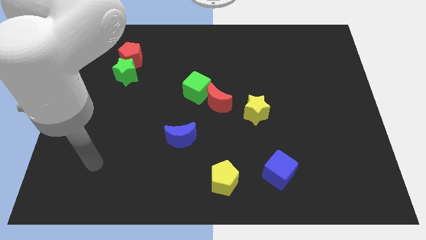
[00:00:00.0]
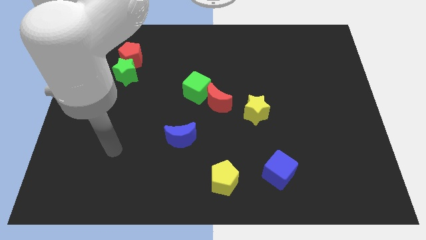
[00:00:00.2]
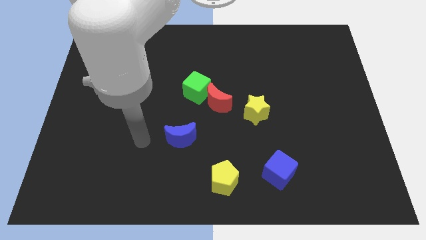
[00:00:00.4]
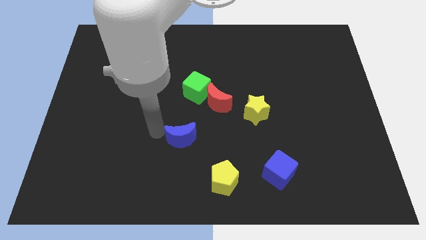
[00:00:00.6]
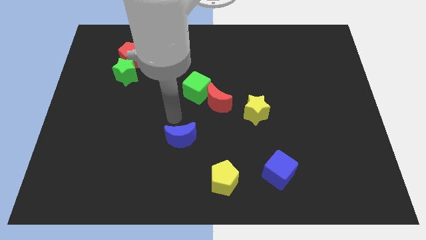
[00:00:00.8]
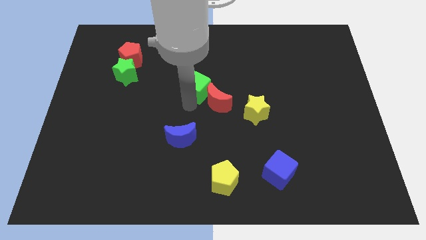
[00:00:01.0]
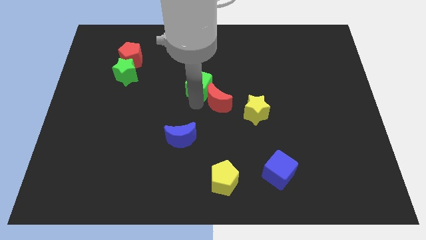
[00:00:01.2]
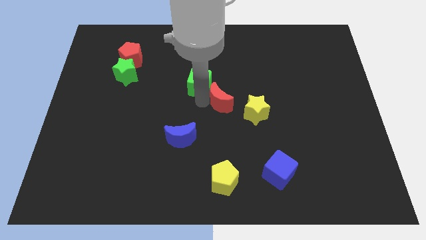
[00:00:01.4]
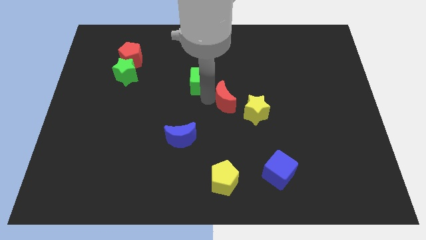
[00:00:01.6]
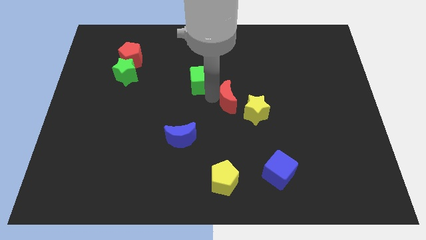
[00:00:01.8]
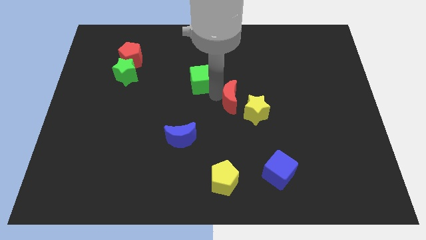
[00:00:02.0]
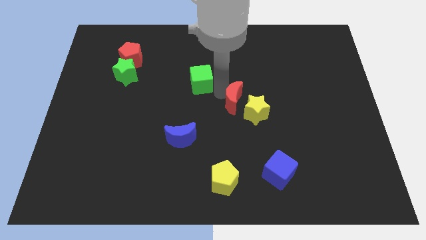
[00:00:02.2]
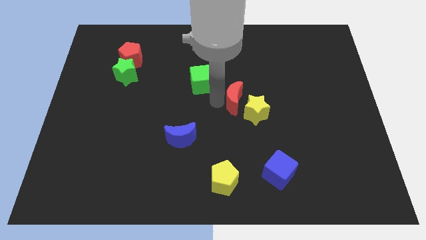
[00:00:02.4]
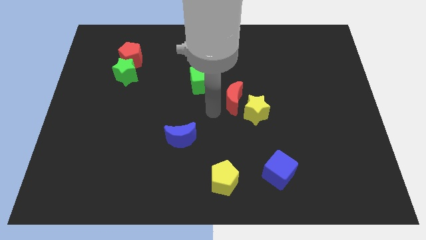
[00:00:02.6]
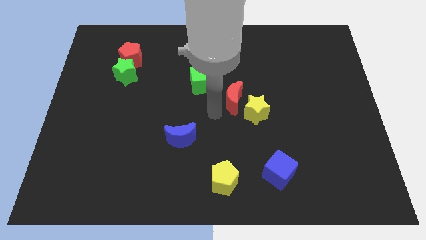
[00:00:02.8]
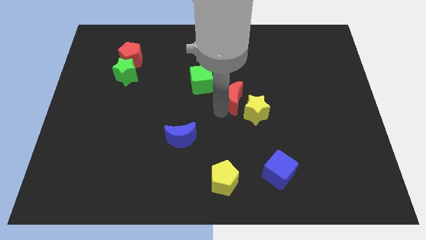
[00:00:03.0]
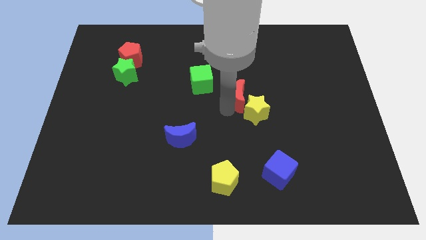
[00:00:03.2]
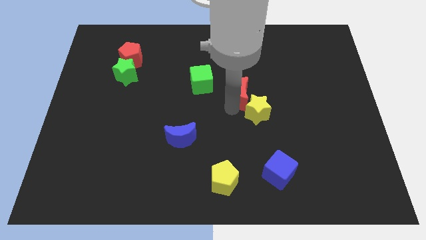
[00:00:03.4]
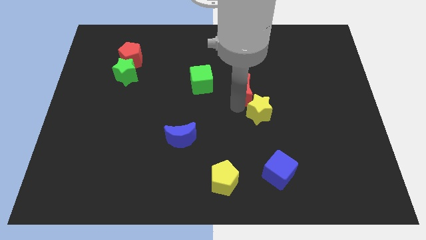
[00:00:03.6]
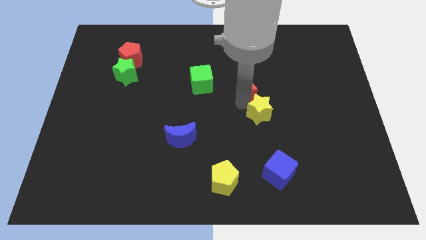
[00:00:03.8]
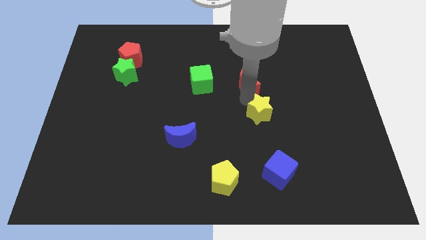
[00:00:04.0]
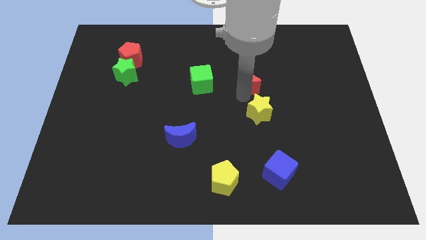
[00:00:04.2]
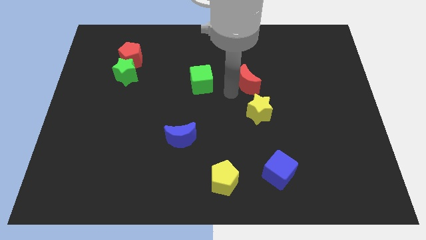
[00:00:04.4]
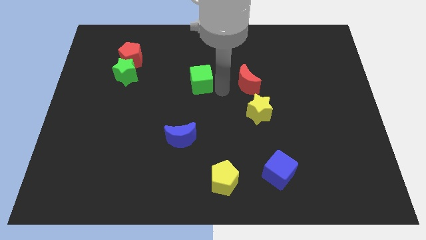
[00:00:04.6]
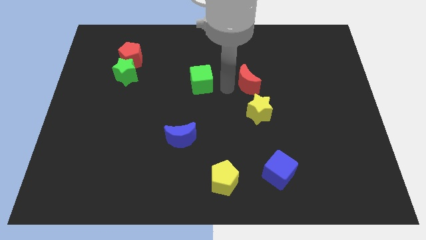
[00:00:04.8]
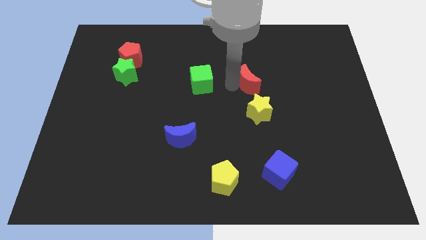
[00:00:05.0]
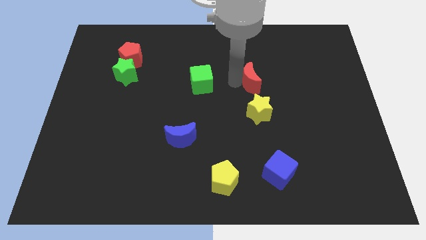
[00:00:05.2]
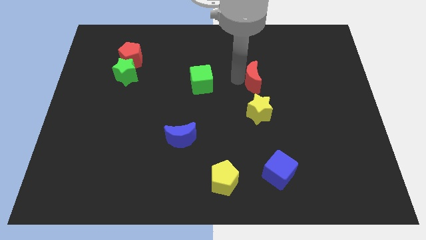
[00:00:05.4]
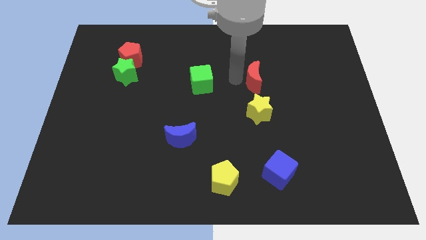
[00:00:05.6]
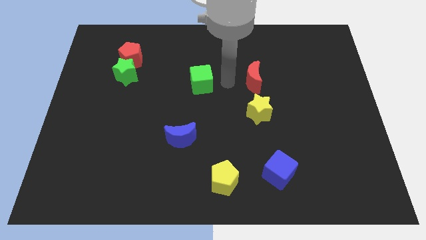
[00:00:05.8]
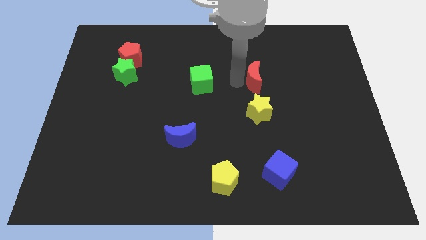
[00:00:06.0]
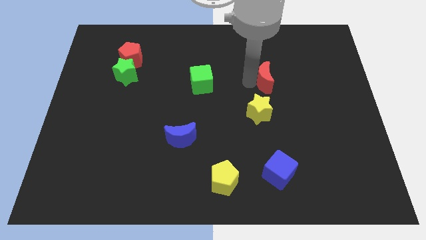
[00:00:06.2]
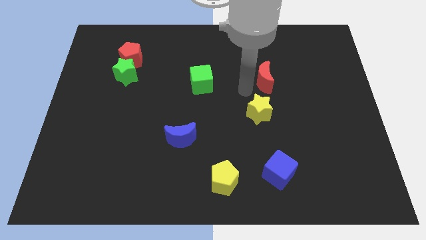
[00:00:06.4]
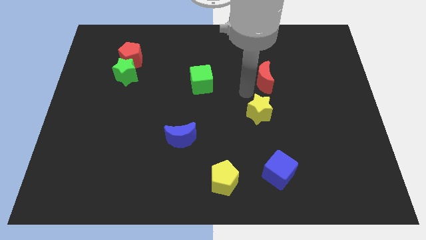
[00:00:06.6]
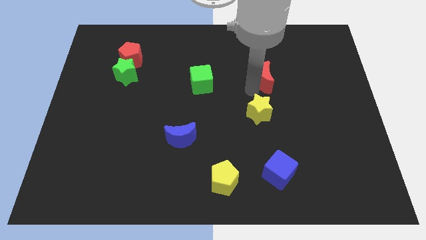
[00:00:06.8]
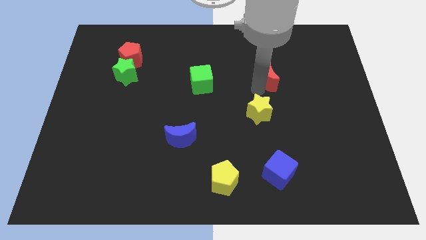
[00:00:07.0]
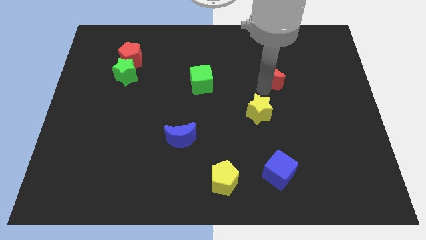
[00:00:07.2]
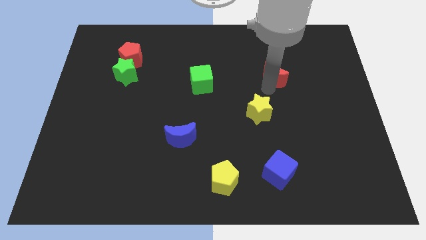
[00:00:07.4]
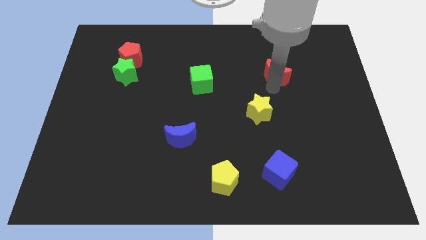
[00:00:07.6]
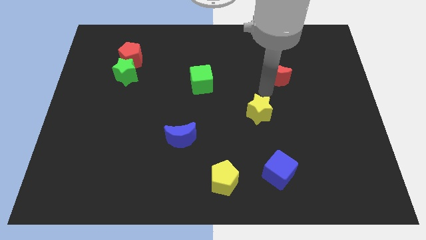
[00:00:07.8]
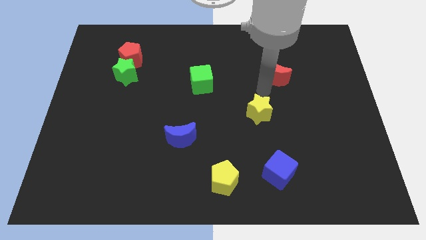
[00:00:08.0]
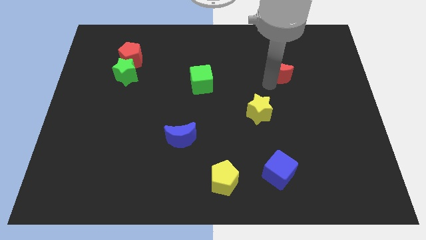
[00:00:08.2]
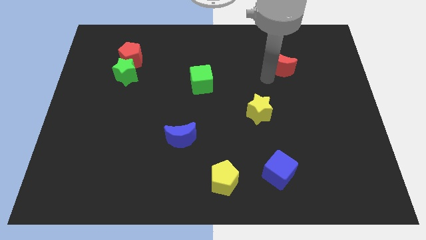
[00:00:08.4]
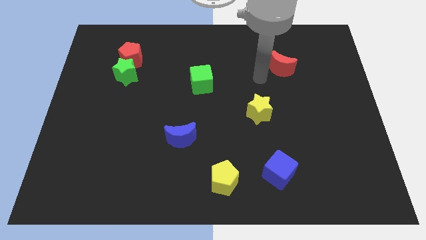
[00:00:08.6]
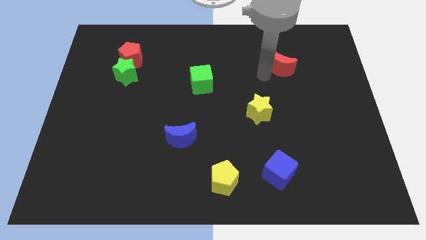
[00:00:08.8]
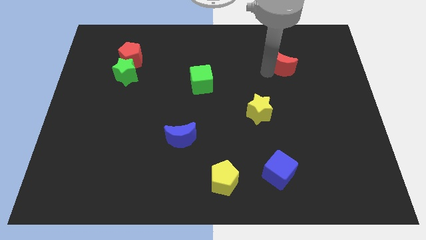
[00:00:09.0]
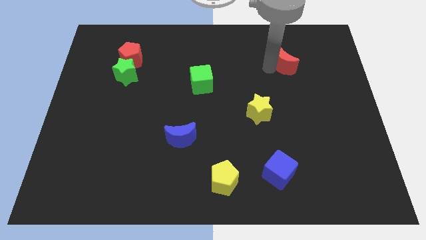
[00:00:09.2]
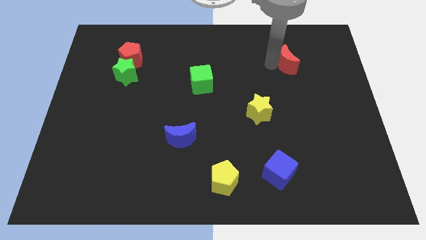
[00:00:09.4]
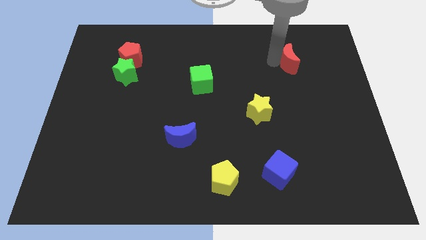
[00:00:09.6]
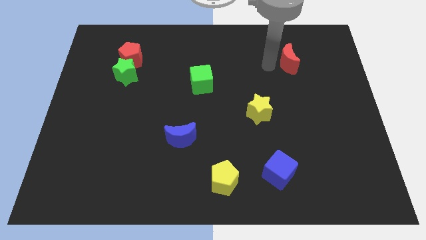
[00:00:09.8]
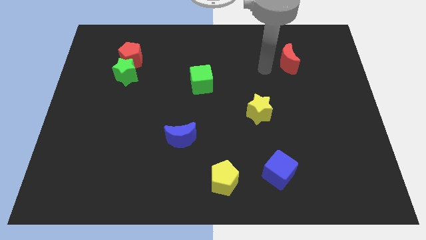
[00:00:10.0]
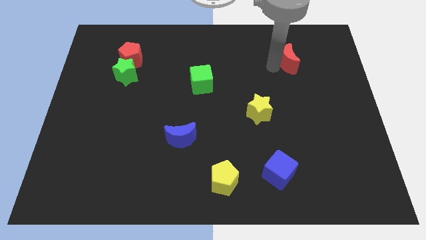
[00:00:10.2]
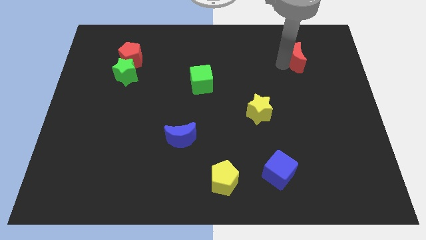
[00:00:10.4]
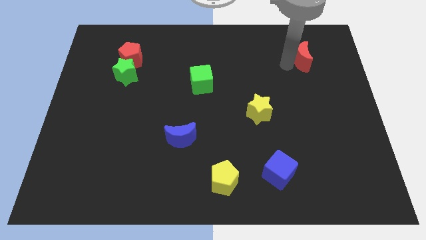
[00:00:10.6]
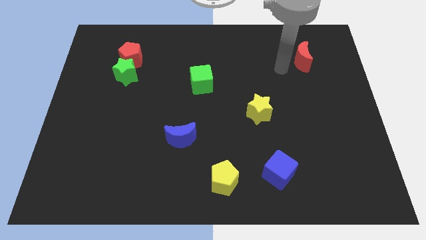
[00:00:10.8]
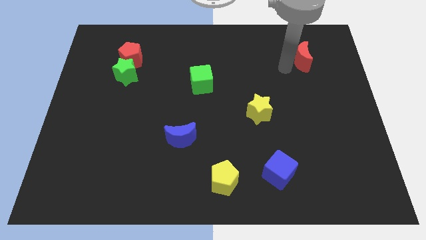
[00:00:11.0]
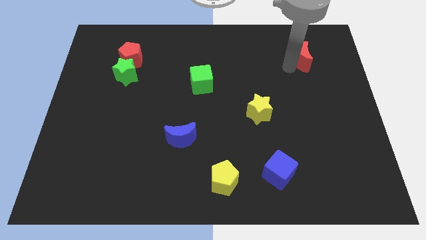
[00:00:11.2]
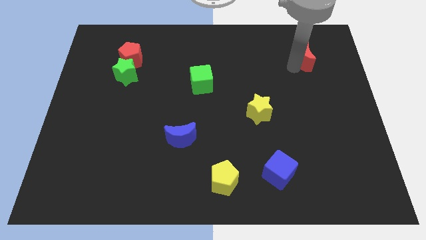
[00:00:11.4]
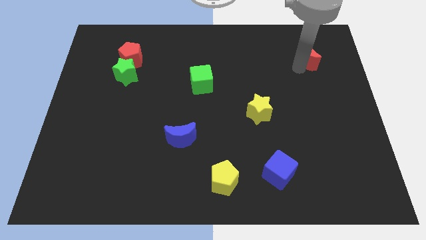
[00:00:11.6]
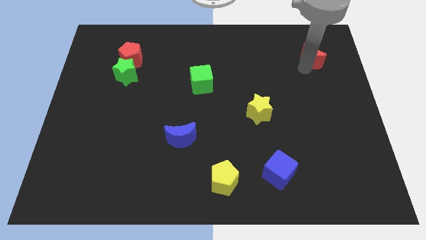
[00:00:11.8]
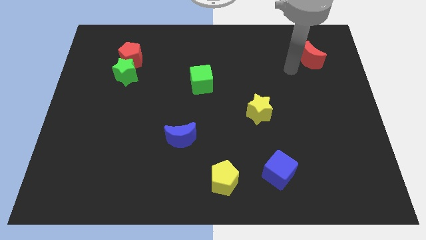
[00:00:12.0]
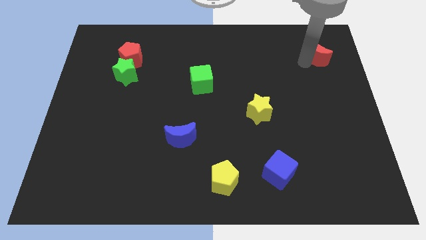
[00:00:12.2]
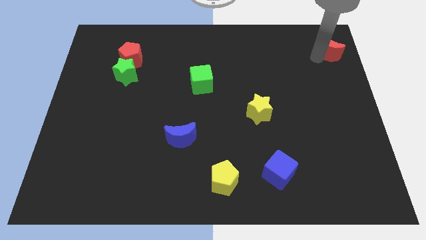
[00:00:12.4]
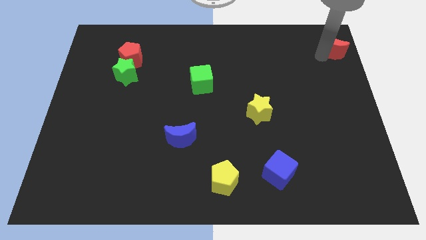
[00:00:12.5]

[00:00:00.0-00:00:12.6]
push the red moon to the top right corner
